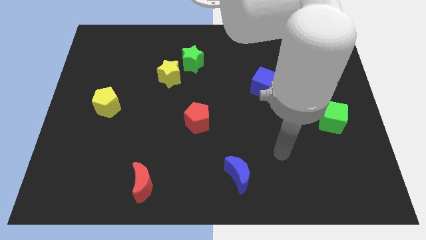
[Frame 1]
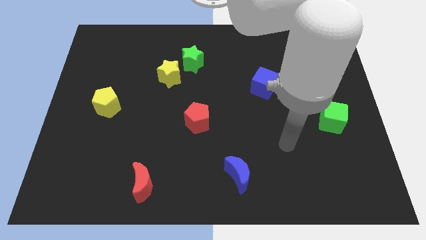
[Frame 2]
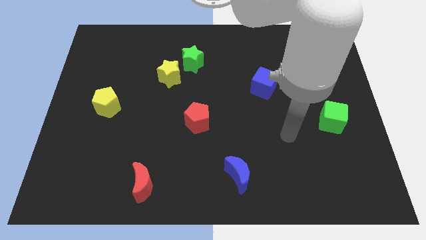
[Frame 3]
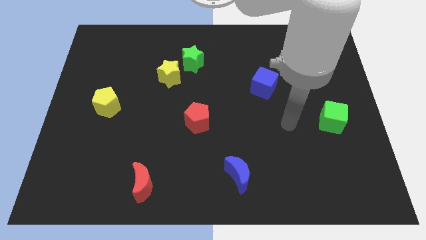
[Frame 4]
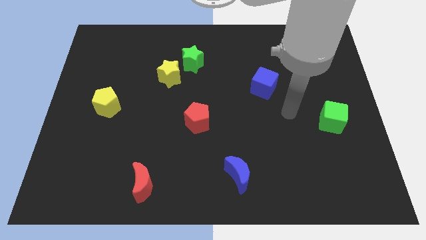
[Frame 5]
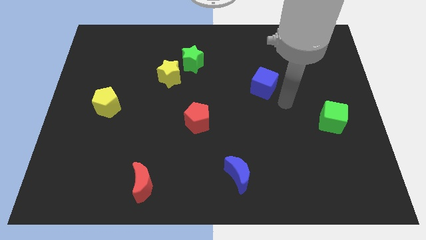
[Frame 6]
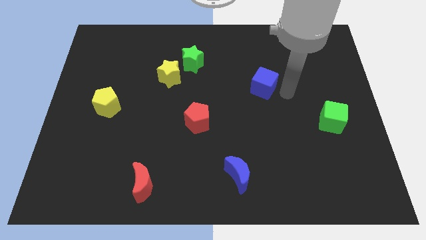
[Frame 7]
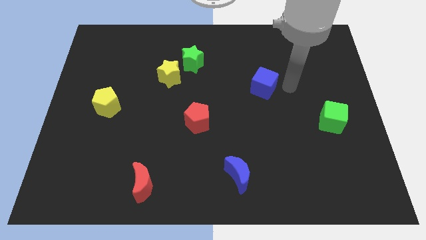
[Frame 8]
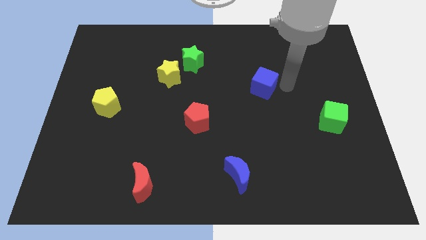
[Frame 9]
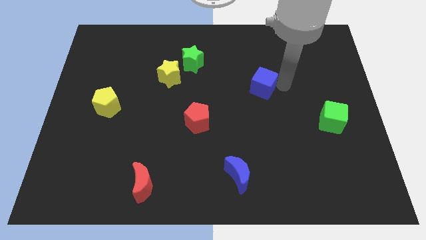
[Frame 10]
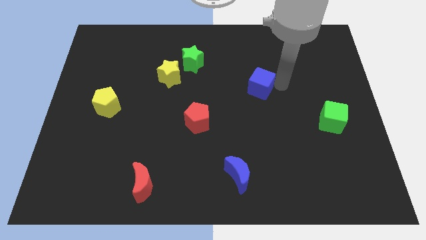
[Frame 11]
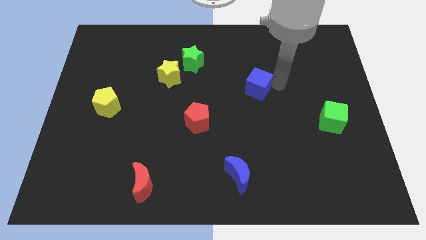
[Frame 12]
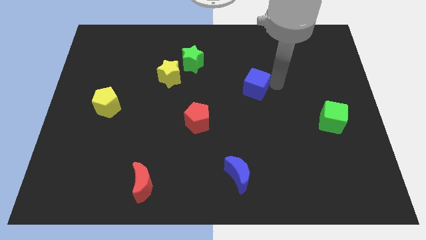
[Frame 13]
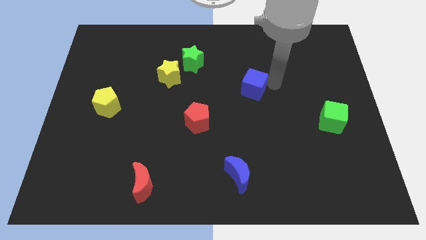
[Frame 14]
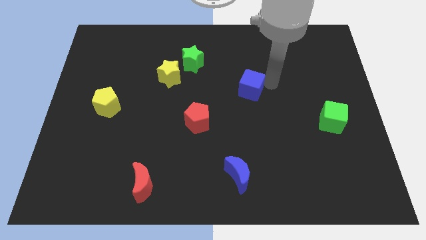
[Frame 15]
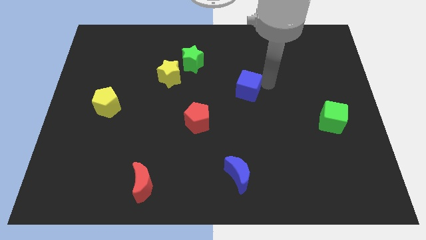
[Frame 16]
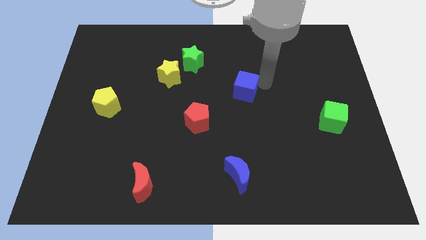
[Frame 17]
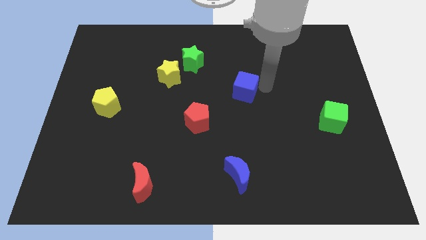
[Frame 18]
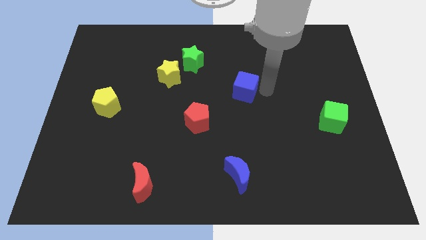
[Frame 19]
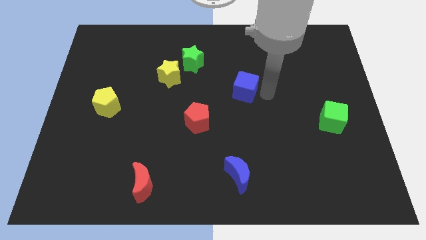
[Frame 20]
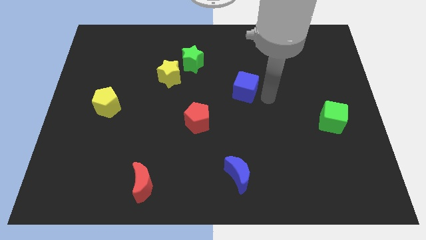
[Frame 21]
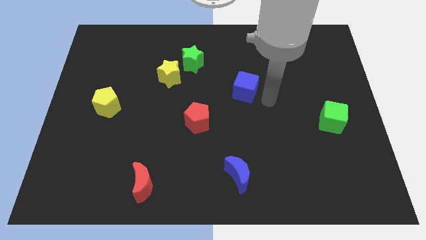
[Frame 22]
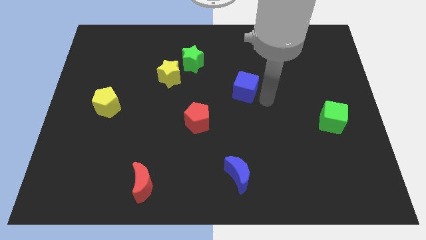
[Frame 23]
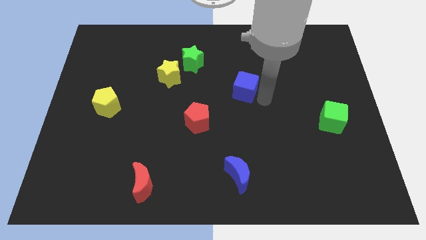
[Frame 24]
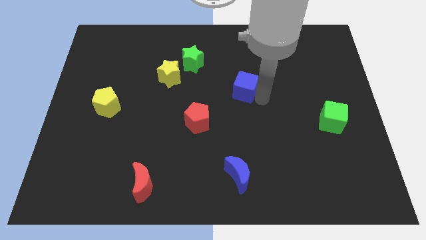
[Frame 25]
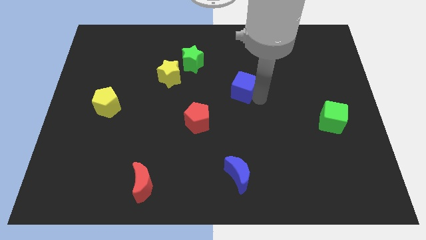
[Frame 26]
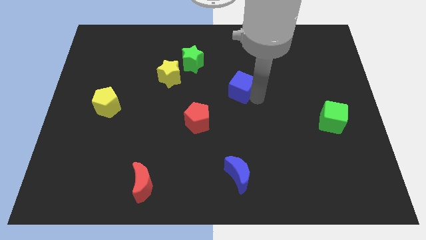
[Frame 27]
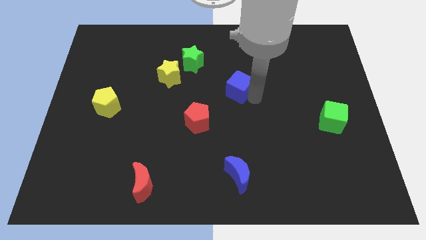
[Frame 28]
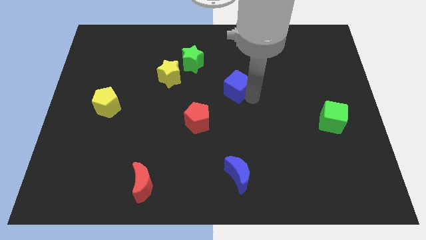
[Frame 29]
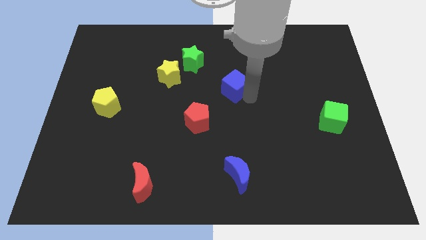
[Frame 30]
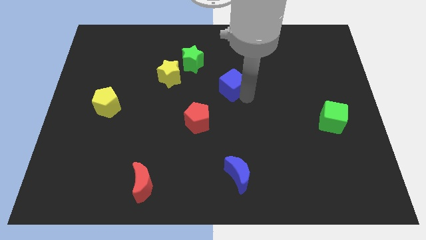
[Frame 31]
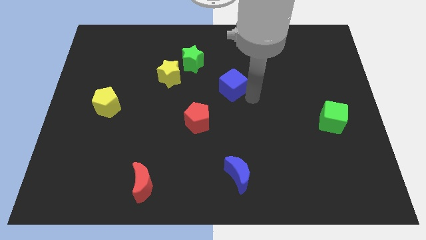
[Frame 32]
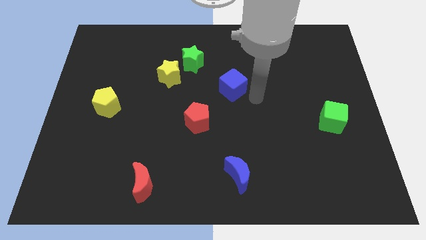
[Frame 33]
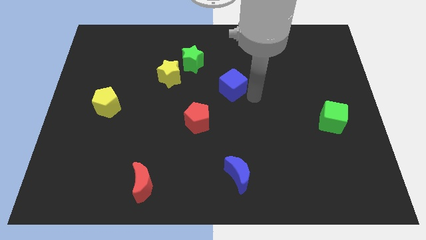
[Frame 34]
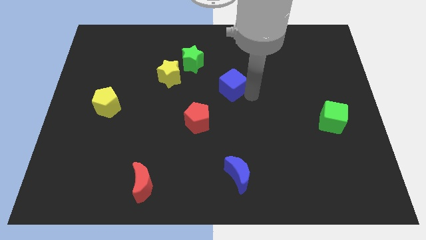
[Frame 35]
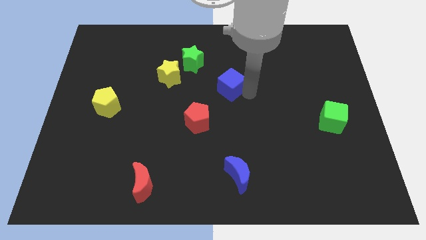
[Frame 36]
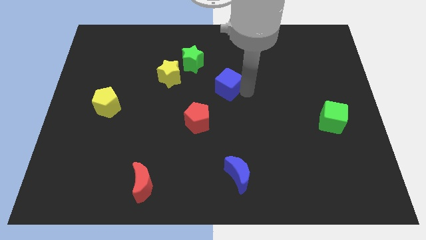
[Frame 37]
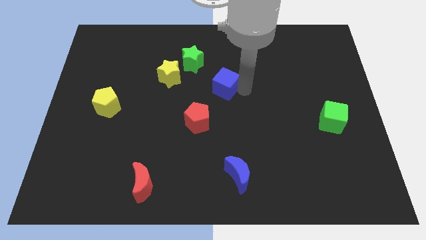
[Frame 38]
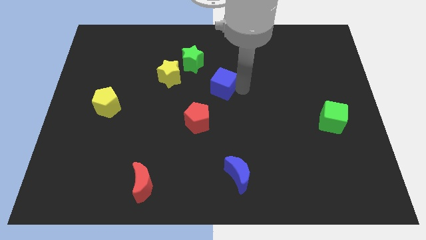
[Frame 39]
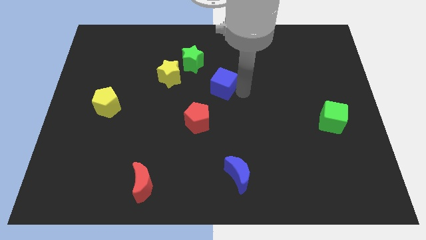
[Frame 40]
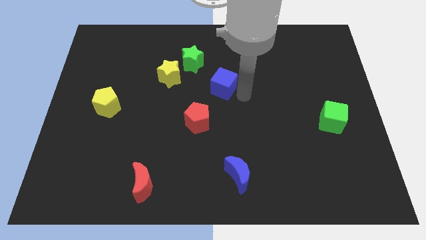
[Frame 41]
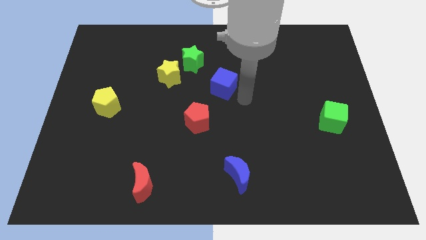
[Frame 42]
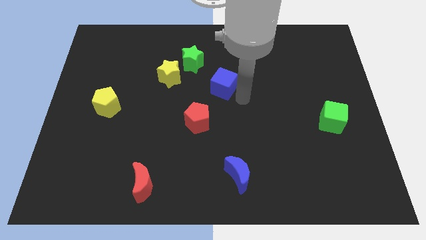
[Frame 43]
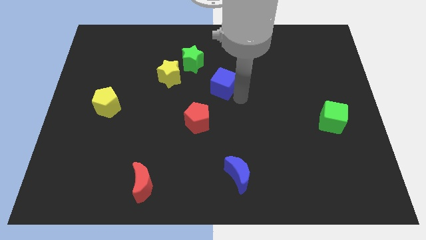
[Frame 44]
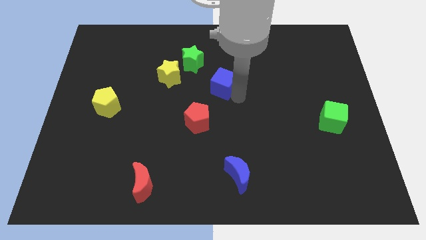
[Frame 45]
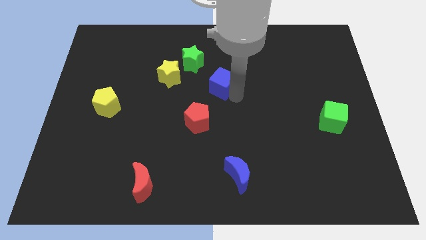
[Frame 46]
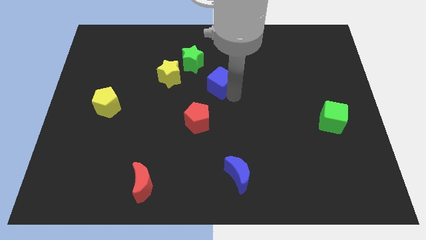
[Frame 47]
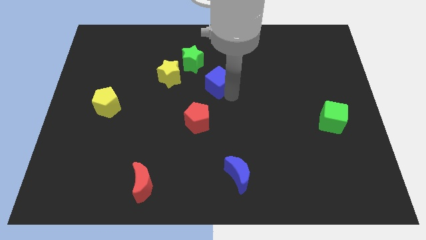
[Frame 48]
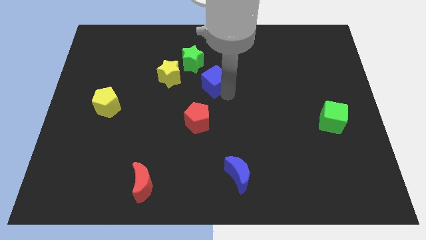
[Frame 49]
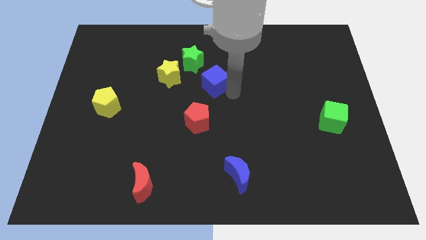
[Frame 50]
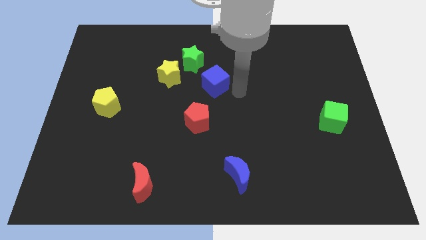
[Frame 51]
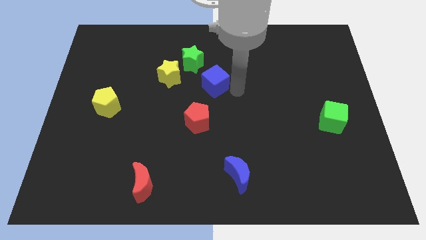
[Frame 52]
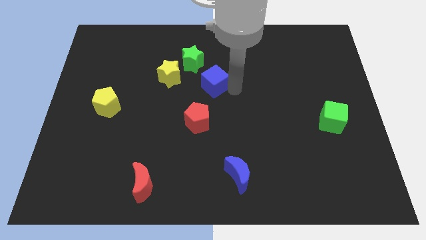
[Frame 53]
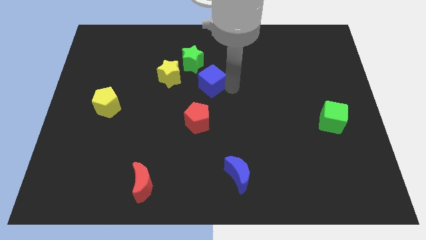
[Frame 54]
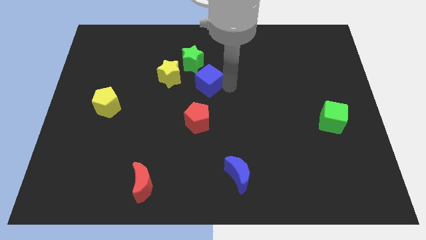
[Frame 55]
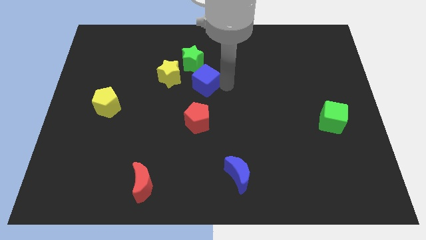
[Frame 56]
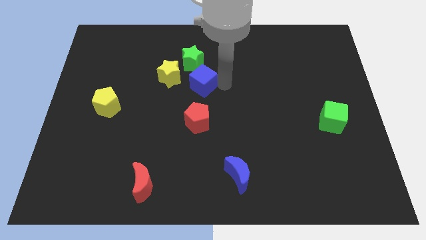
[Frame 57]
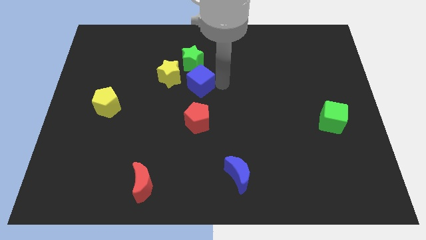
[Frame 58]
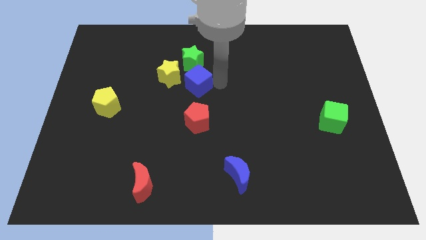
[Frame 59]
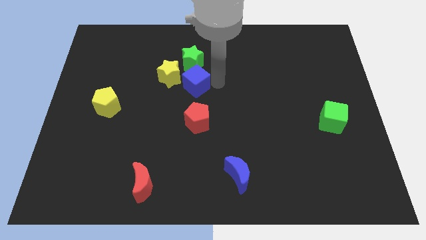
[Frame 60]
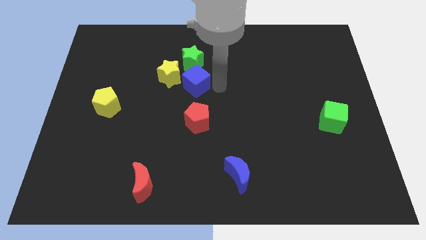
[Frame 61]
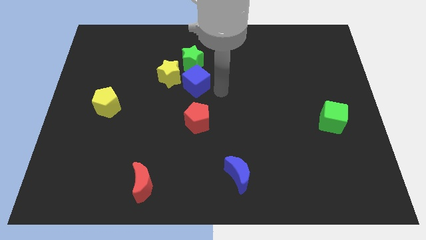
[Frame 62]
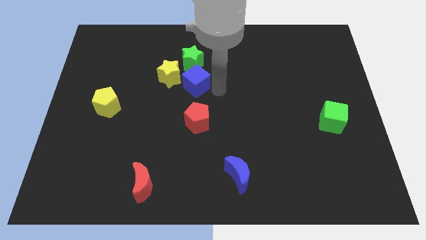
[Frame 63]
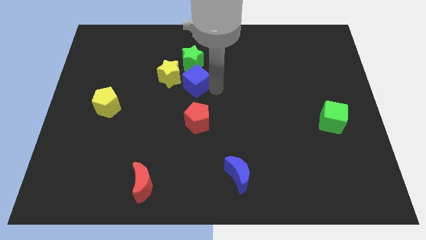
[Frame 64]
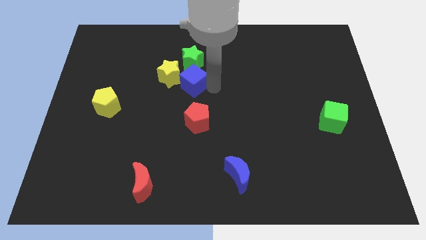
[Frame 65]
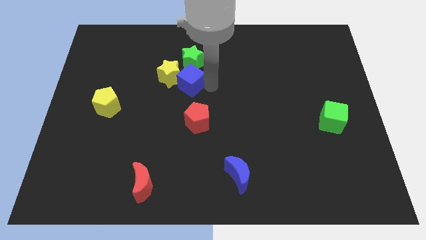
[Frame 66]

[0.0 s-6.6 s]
slide the blue cube next to the yellow star

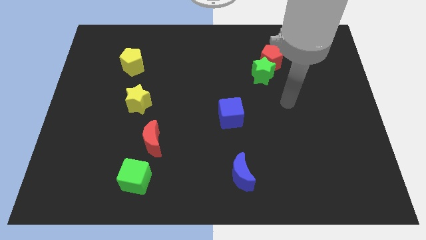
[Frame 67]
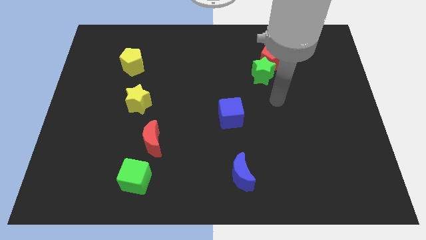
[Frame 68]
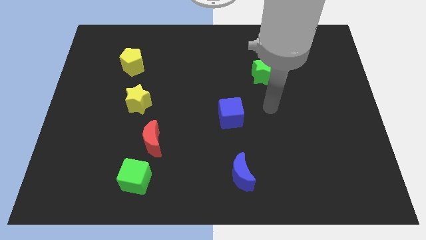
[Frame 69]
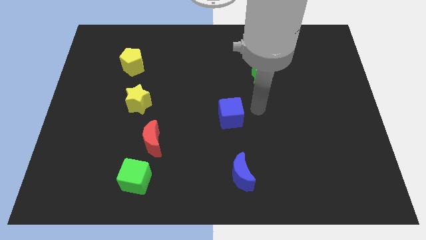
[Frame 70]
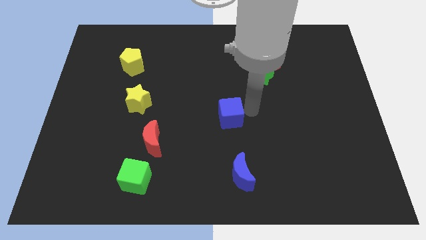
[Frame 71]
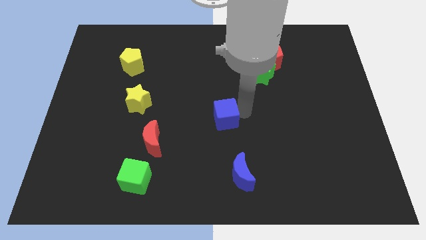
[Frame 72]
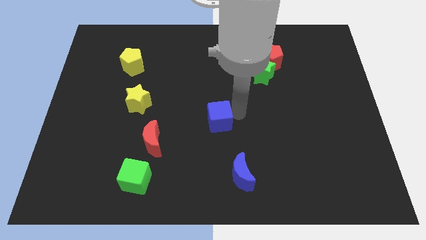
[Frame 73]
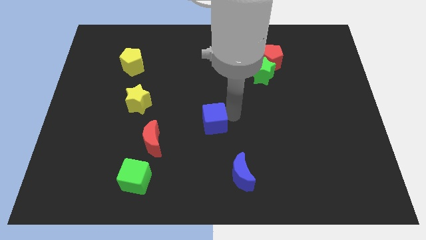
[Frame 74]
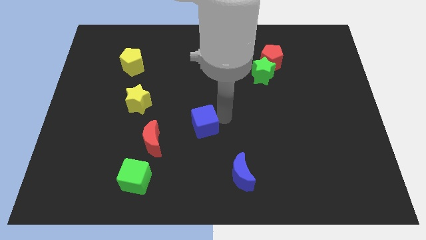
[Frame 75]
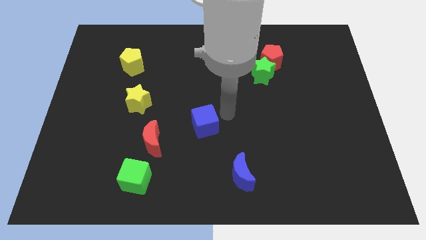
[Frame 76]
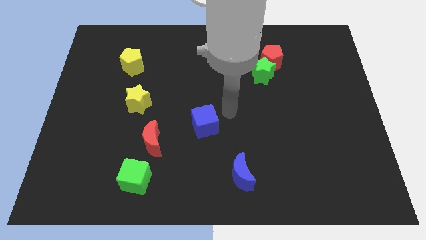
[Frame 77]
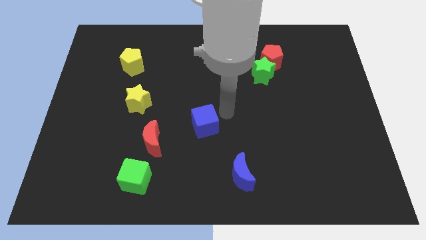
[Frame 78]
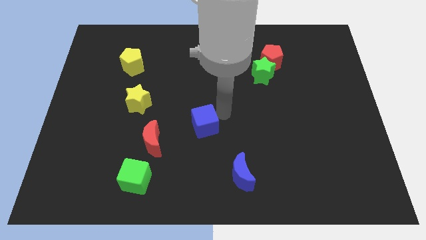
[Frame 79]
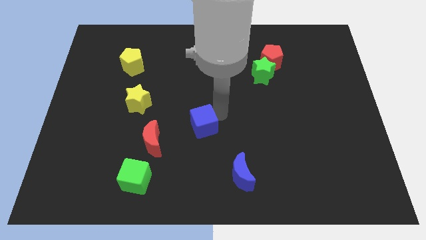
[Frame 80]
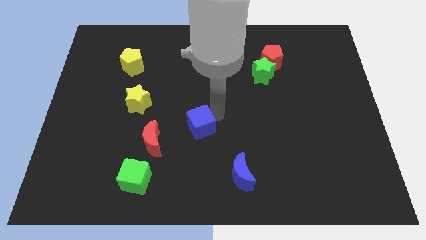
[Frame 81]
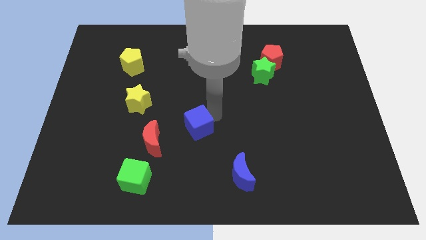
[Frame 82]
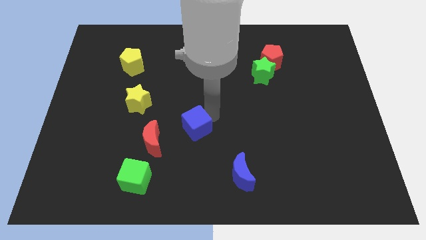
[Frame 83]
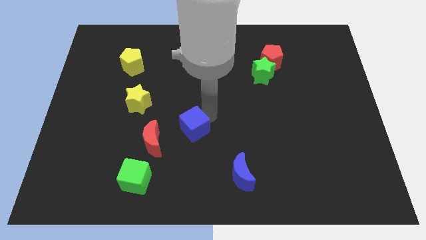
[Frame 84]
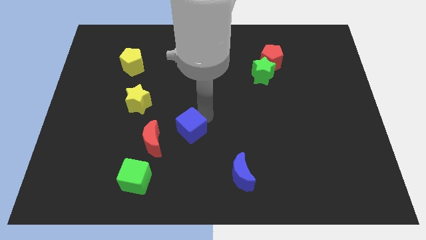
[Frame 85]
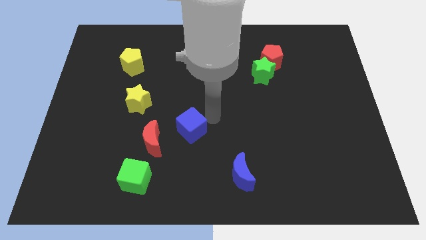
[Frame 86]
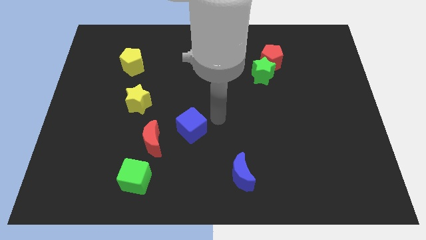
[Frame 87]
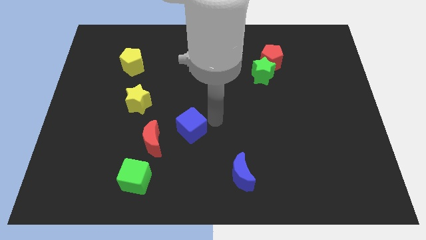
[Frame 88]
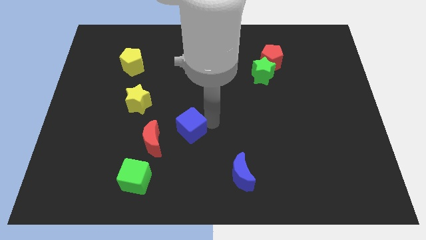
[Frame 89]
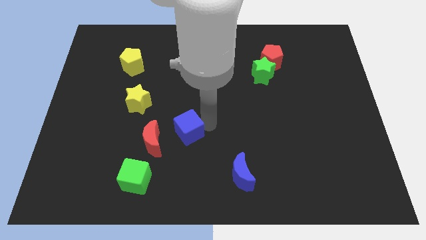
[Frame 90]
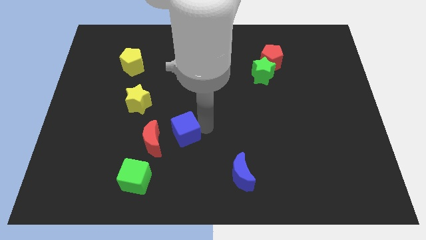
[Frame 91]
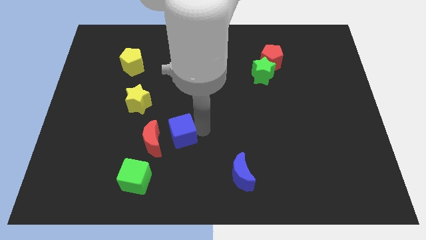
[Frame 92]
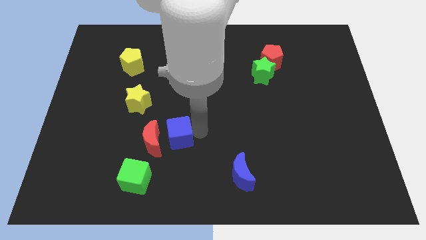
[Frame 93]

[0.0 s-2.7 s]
put the blue cube towards the red moon
